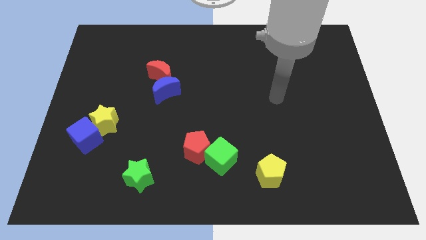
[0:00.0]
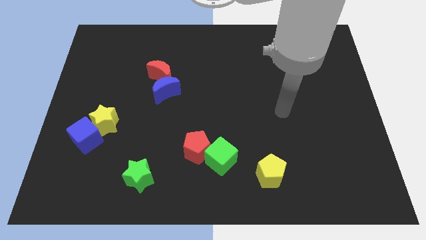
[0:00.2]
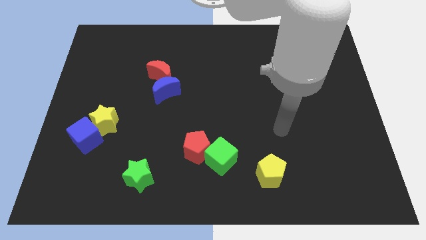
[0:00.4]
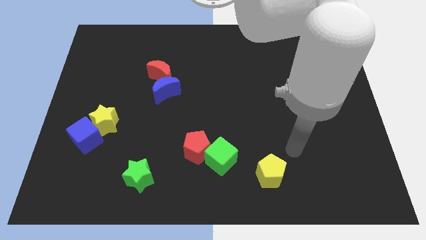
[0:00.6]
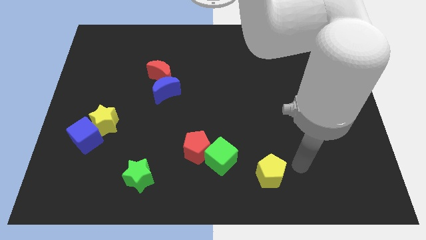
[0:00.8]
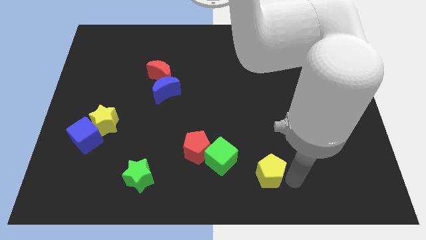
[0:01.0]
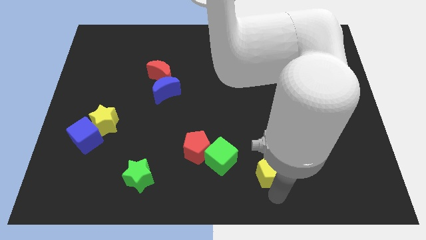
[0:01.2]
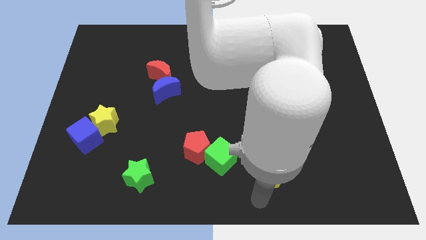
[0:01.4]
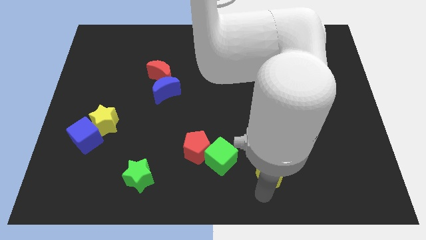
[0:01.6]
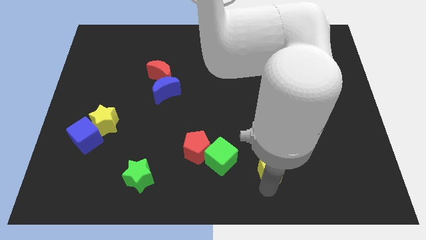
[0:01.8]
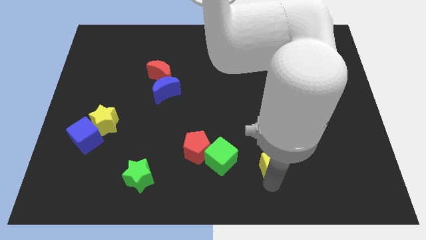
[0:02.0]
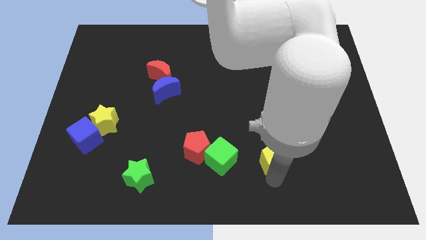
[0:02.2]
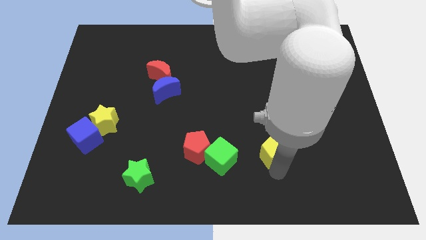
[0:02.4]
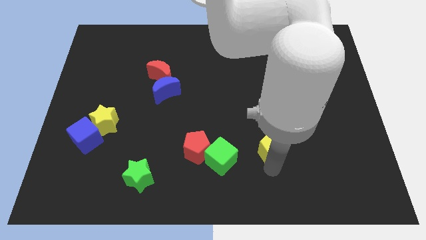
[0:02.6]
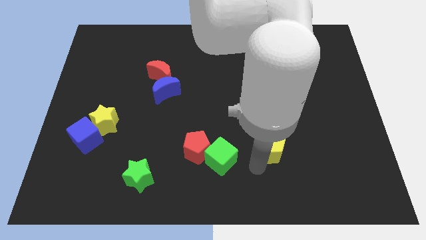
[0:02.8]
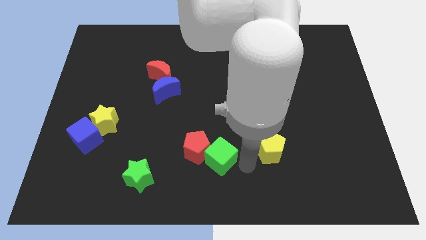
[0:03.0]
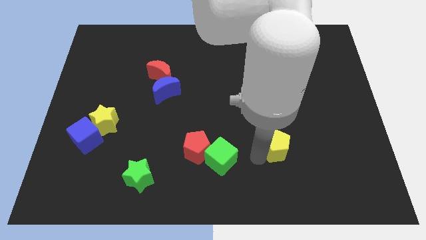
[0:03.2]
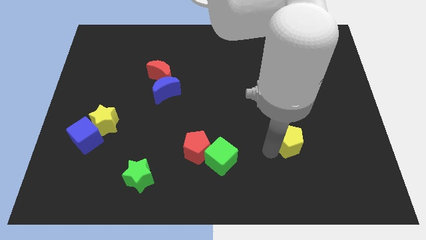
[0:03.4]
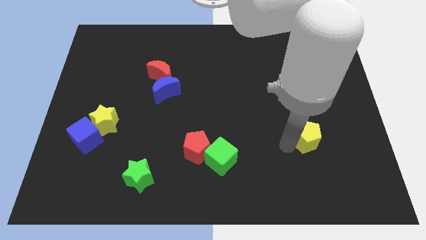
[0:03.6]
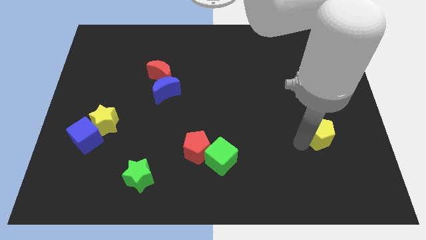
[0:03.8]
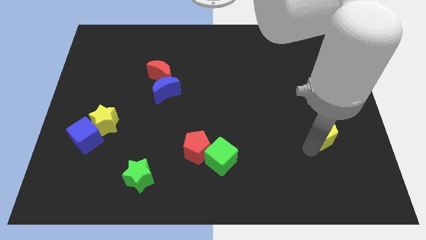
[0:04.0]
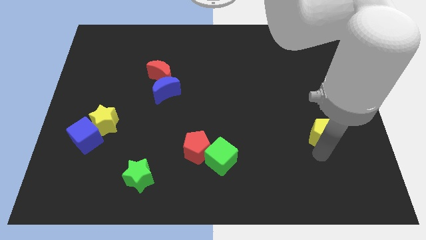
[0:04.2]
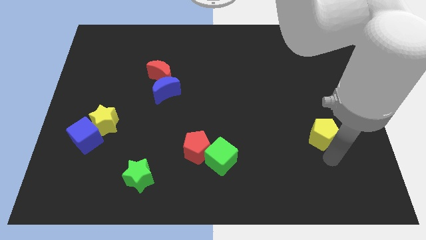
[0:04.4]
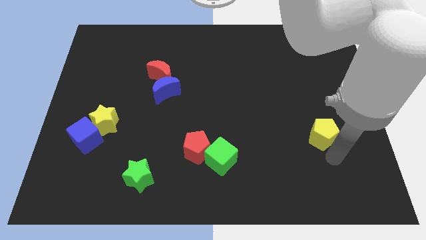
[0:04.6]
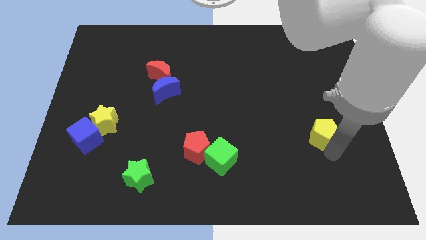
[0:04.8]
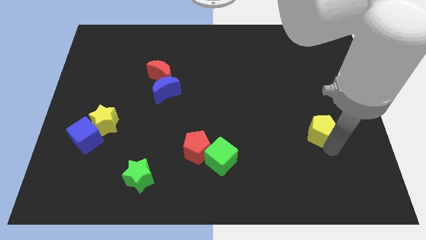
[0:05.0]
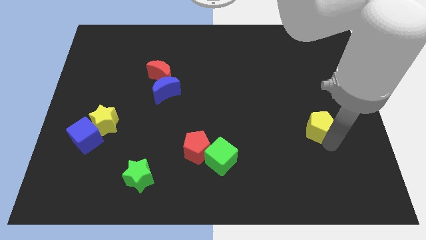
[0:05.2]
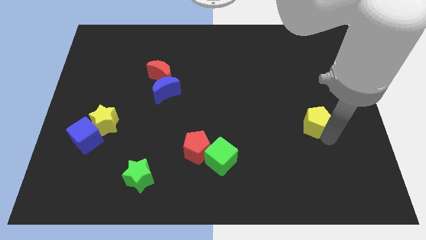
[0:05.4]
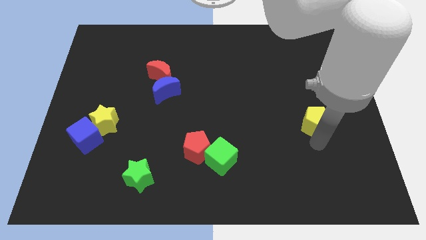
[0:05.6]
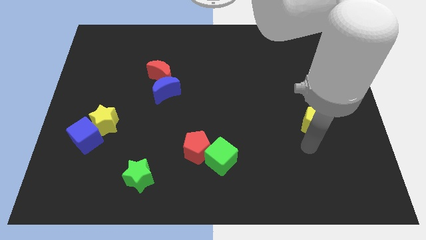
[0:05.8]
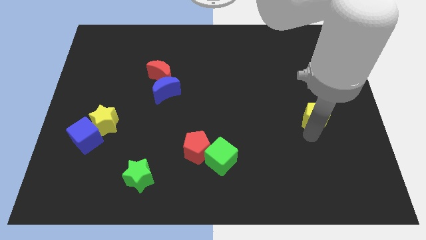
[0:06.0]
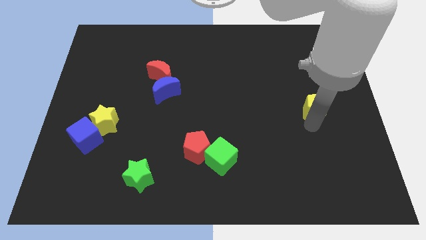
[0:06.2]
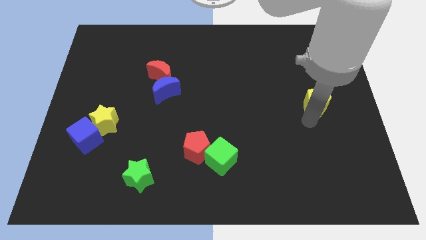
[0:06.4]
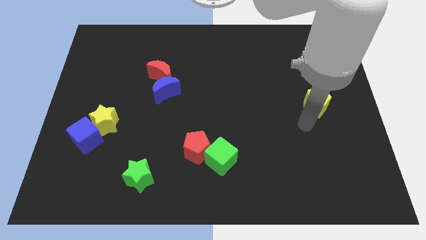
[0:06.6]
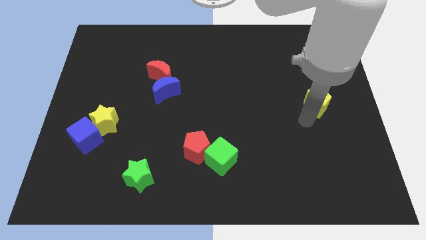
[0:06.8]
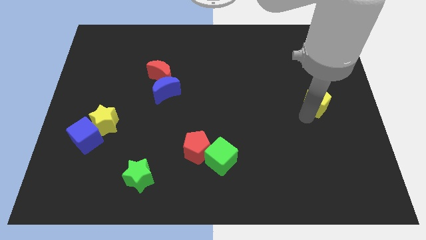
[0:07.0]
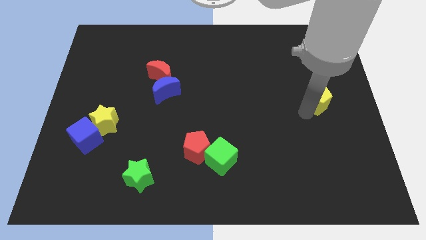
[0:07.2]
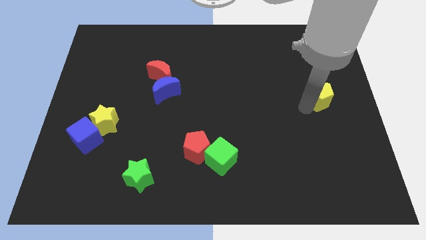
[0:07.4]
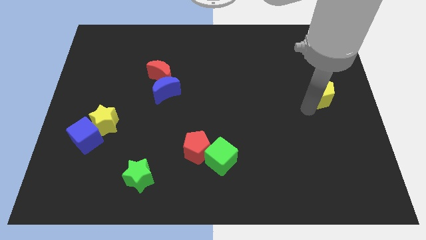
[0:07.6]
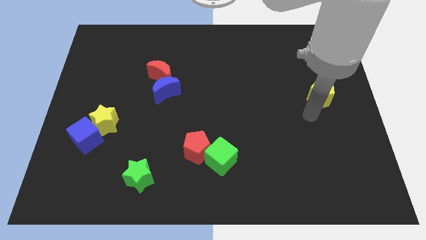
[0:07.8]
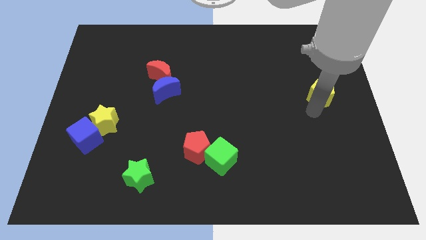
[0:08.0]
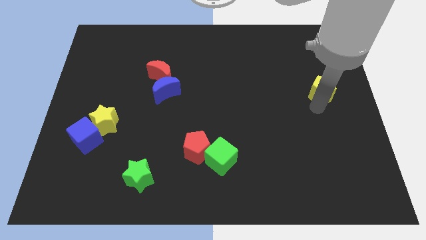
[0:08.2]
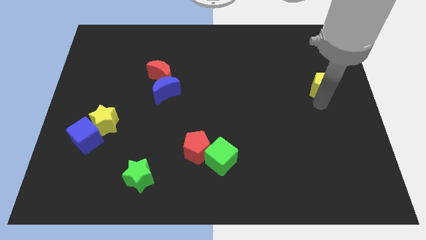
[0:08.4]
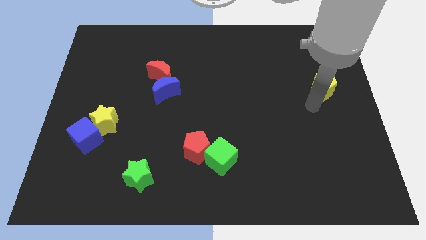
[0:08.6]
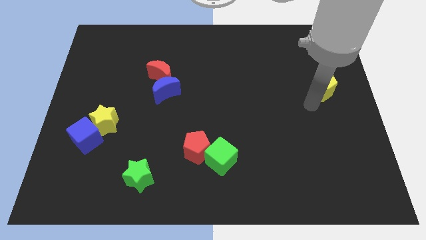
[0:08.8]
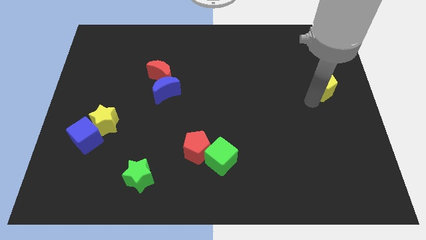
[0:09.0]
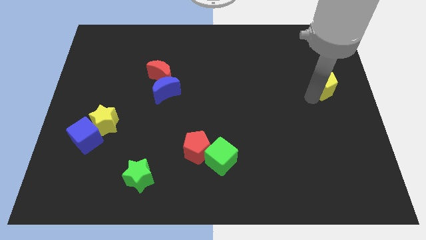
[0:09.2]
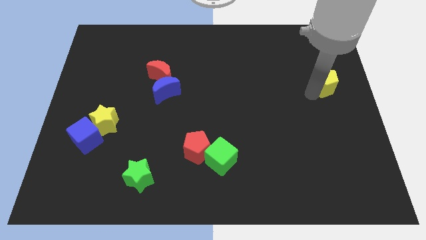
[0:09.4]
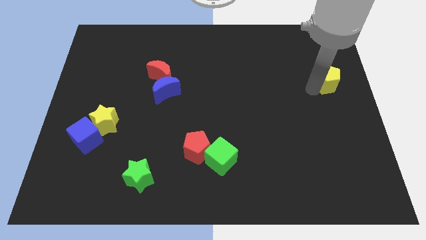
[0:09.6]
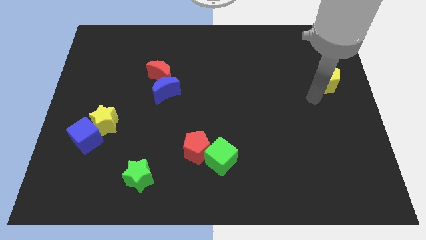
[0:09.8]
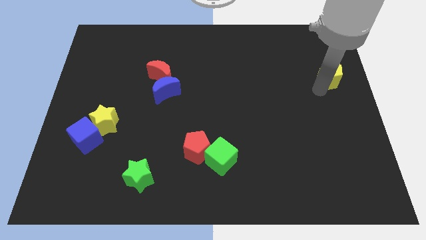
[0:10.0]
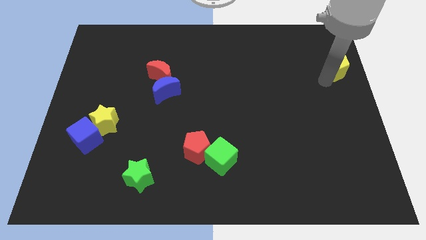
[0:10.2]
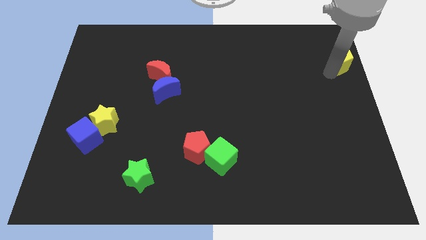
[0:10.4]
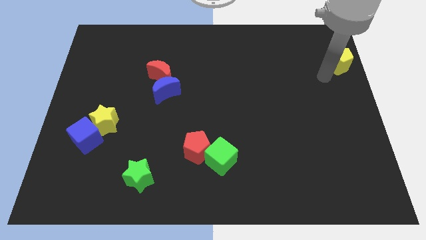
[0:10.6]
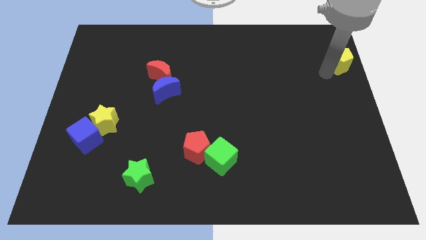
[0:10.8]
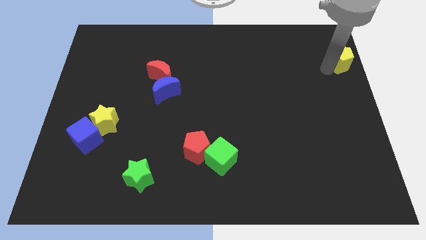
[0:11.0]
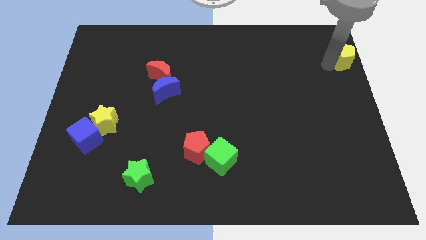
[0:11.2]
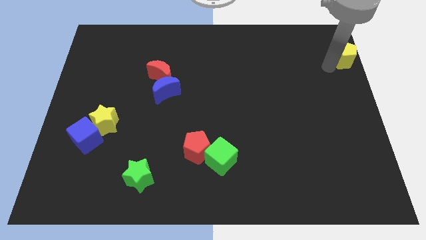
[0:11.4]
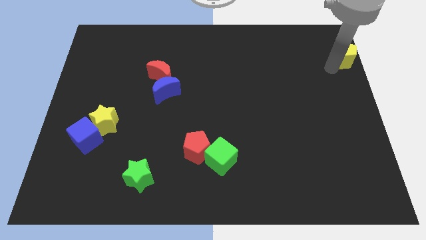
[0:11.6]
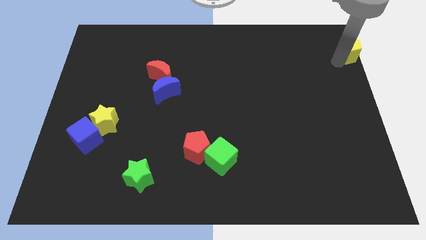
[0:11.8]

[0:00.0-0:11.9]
put the yellow pentagon to the upper right corner

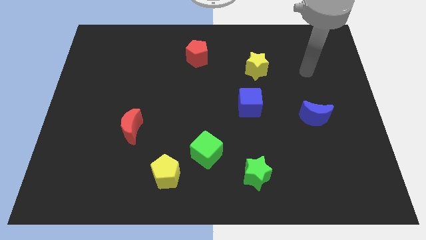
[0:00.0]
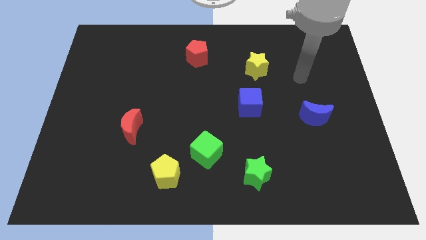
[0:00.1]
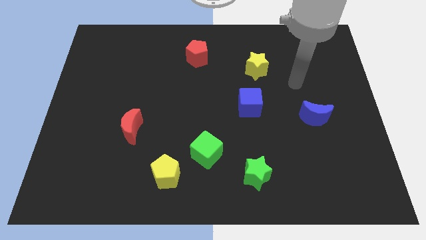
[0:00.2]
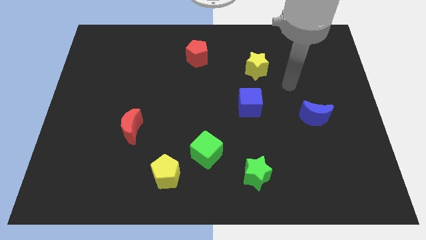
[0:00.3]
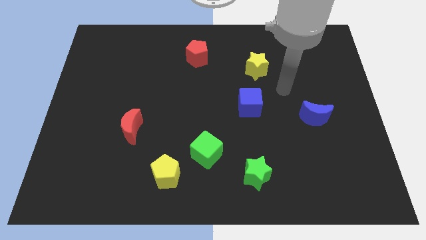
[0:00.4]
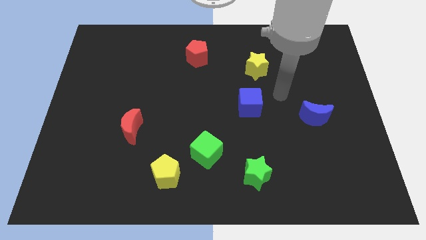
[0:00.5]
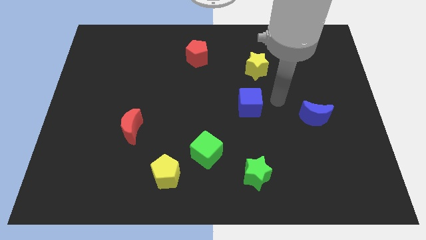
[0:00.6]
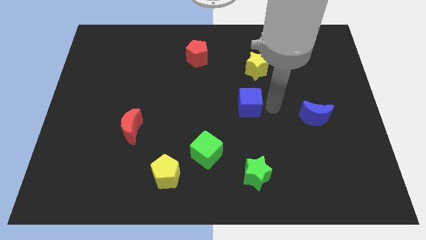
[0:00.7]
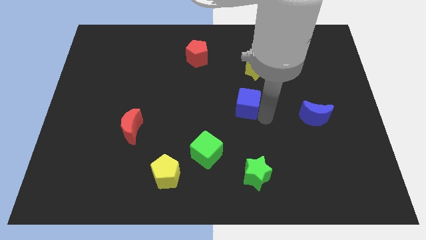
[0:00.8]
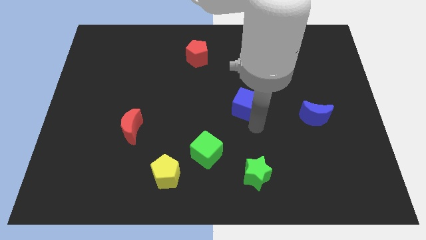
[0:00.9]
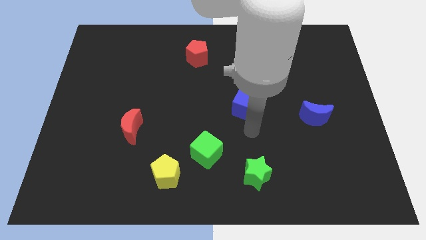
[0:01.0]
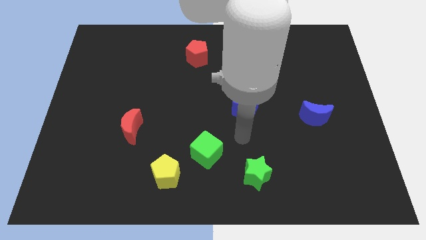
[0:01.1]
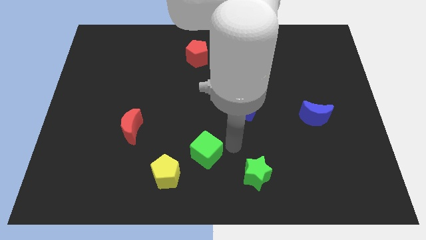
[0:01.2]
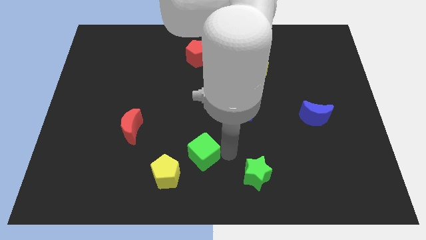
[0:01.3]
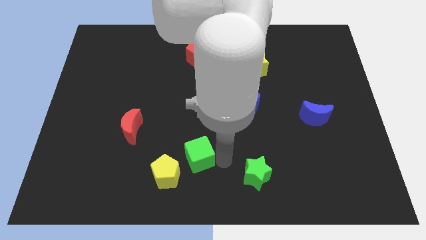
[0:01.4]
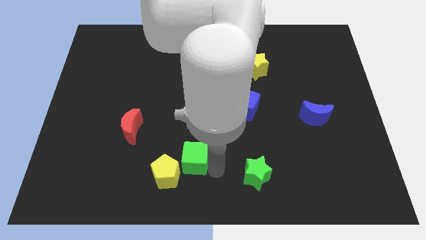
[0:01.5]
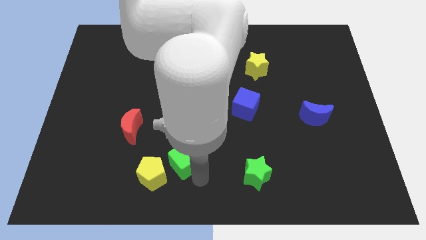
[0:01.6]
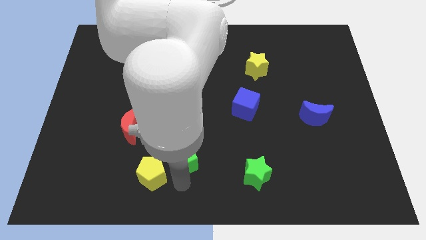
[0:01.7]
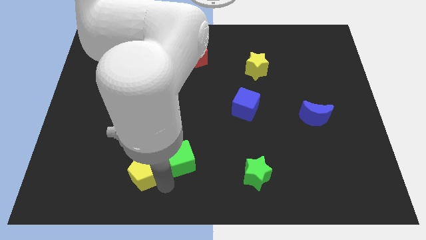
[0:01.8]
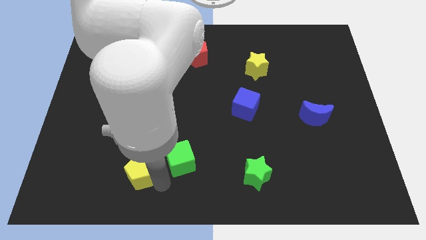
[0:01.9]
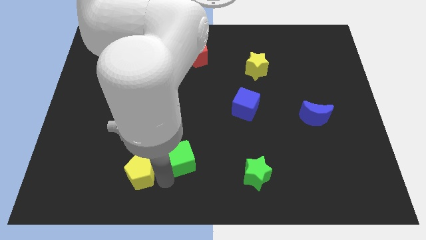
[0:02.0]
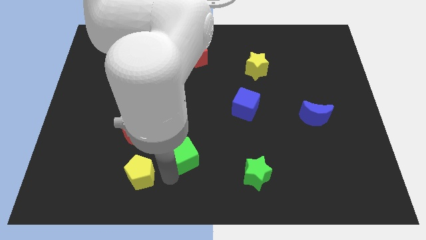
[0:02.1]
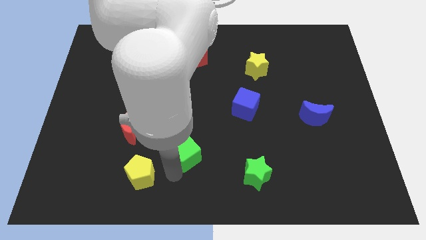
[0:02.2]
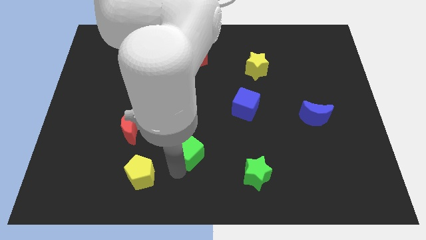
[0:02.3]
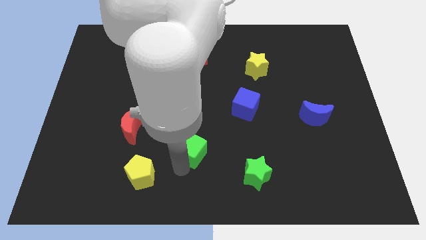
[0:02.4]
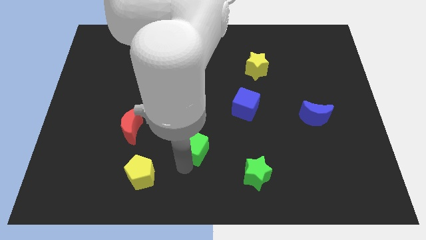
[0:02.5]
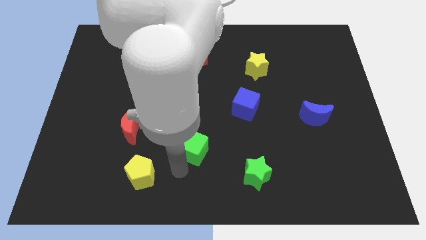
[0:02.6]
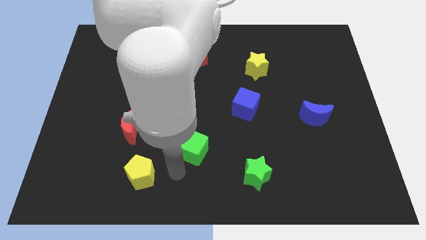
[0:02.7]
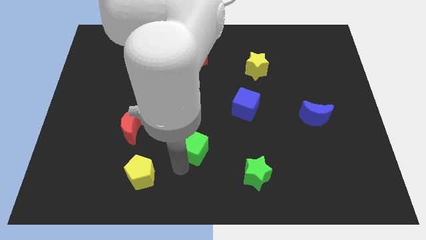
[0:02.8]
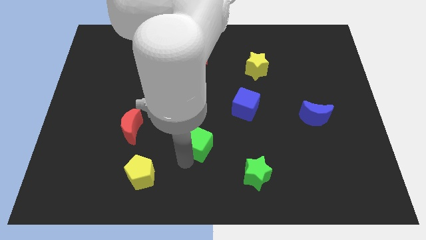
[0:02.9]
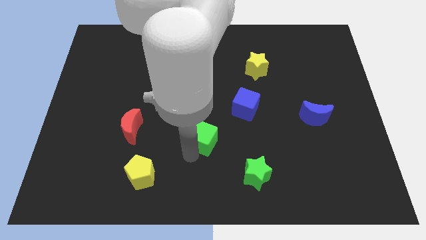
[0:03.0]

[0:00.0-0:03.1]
put the green cube to the center of the board
